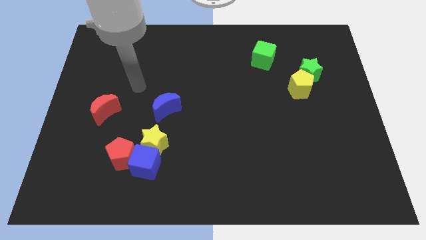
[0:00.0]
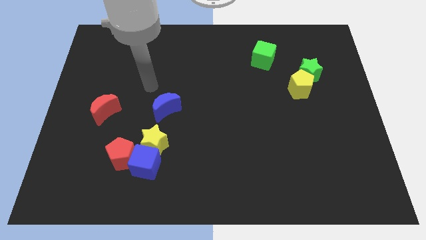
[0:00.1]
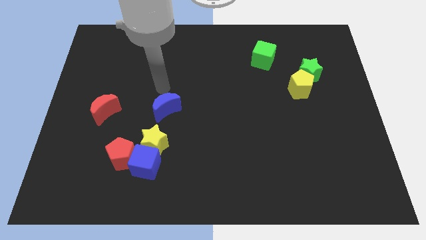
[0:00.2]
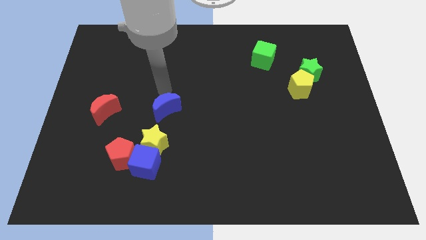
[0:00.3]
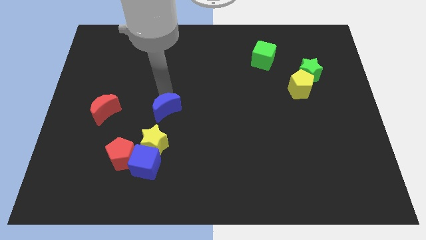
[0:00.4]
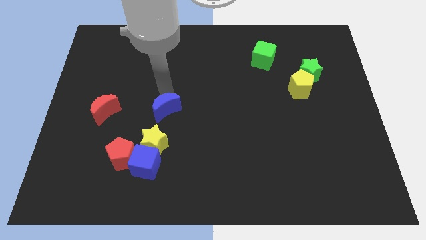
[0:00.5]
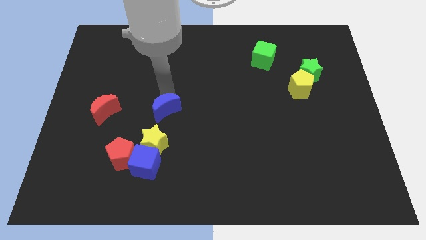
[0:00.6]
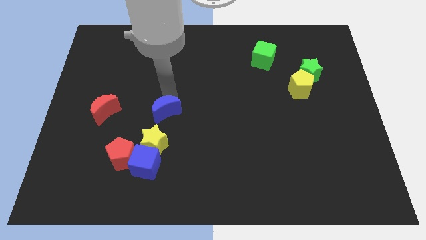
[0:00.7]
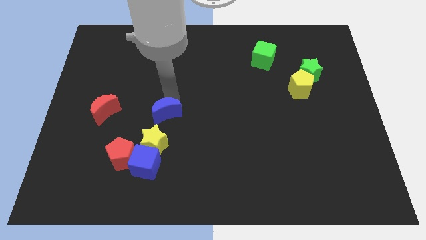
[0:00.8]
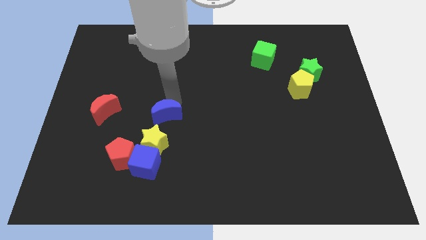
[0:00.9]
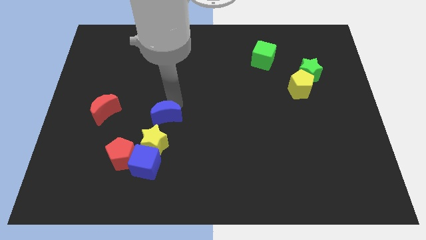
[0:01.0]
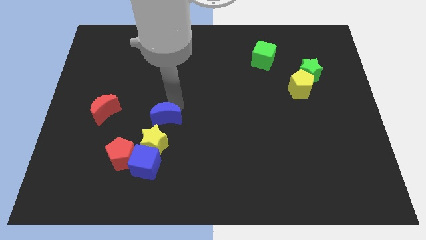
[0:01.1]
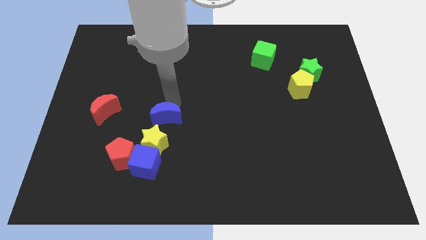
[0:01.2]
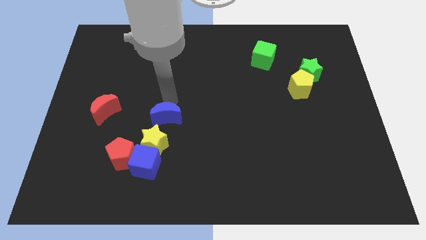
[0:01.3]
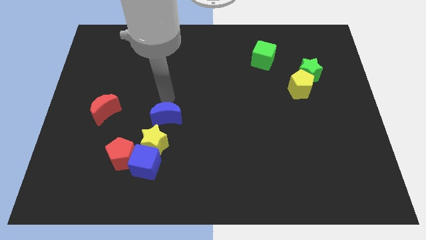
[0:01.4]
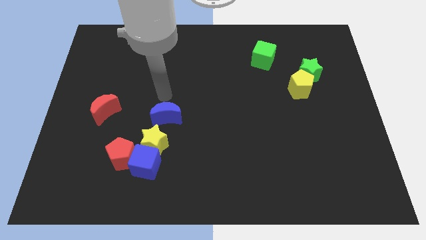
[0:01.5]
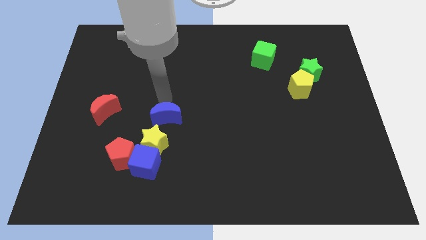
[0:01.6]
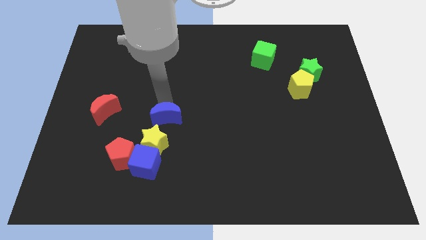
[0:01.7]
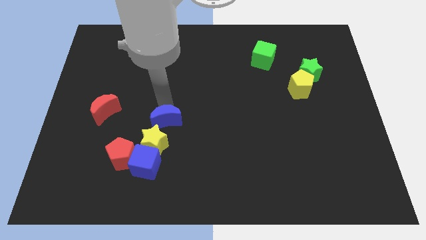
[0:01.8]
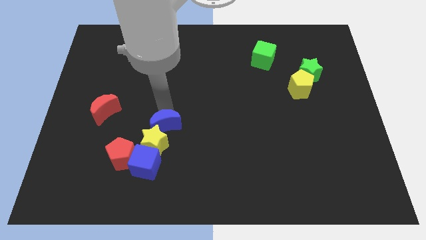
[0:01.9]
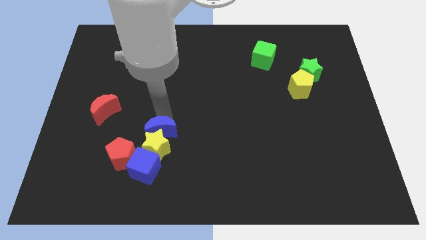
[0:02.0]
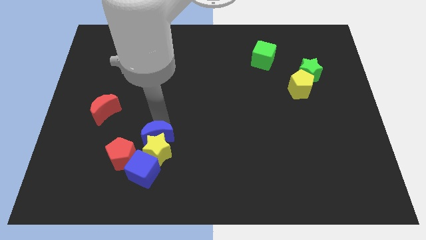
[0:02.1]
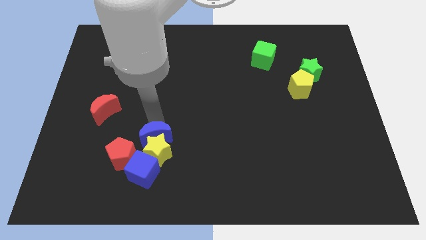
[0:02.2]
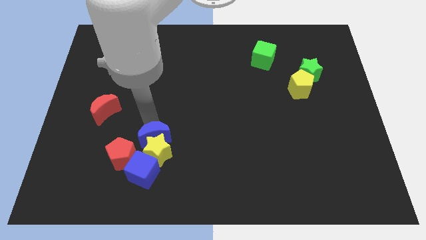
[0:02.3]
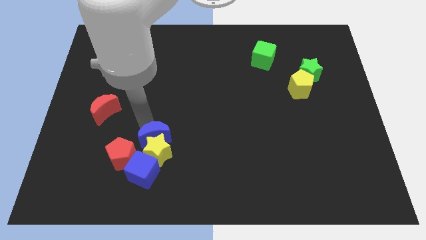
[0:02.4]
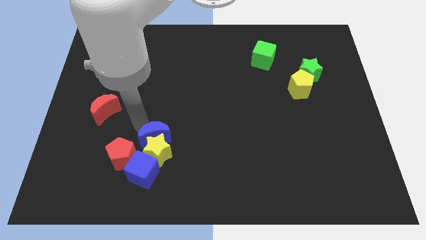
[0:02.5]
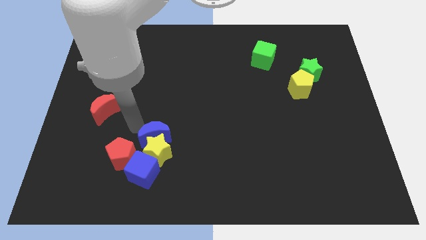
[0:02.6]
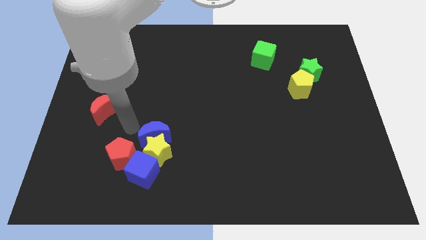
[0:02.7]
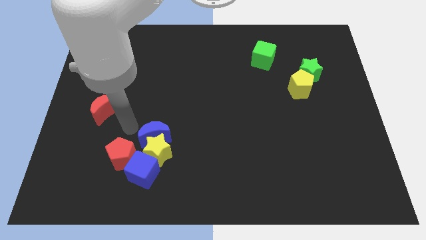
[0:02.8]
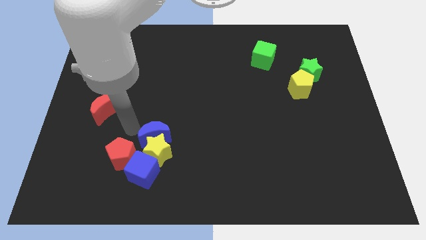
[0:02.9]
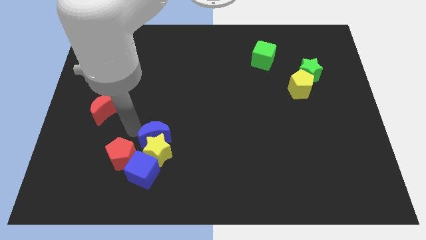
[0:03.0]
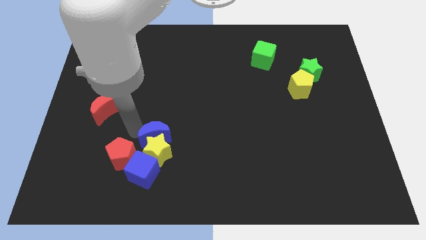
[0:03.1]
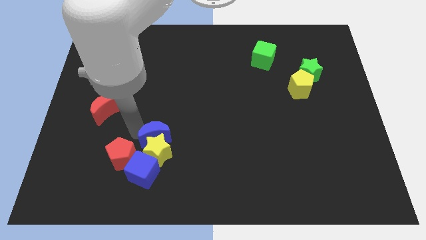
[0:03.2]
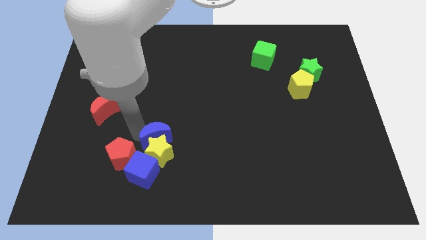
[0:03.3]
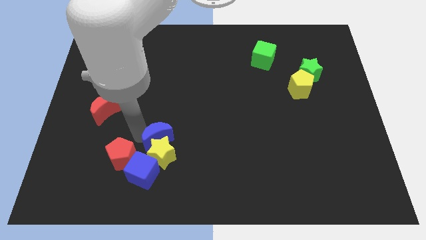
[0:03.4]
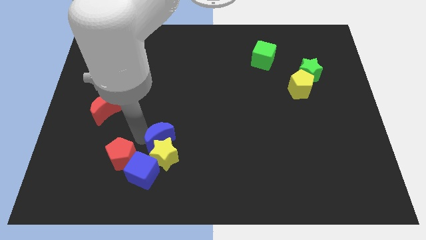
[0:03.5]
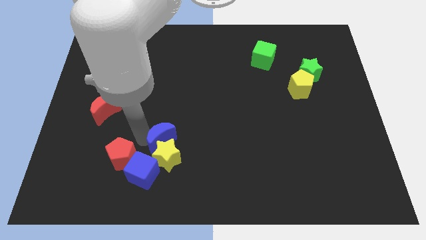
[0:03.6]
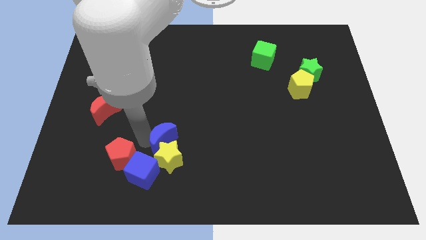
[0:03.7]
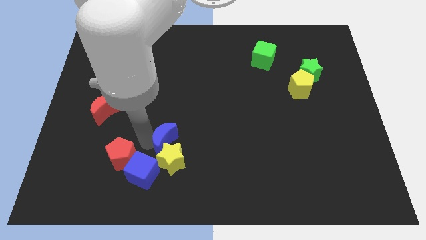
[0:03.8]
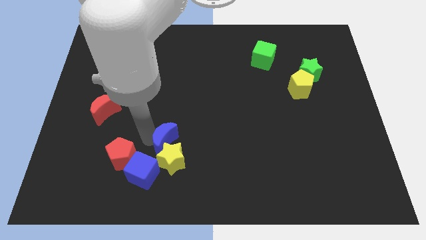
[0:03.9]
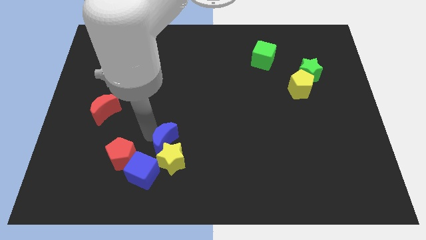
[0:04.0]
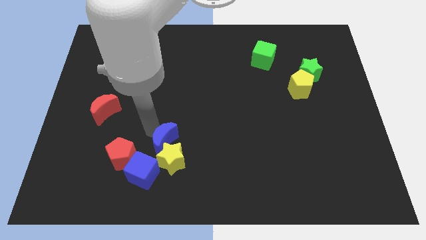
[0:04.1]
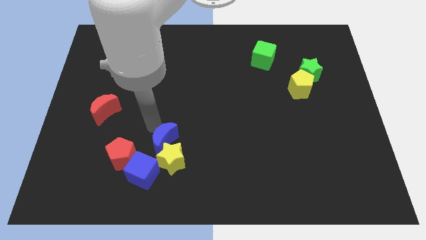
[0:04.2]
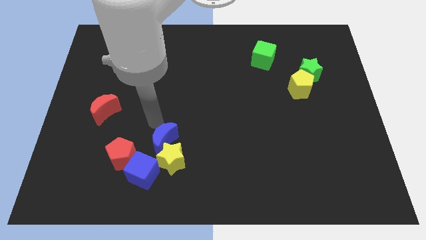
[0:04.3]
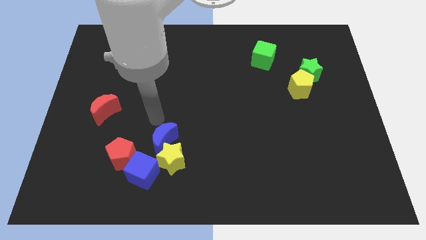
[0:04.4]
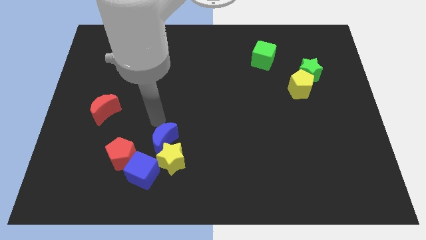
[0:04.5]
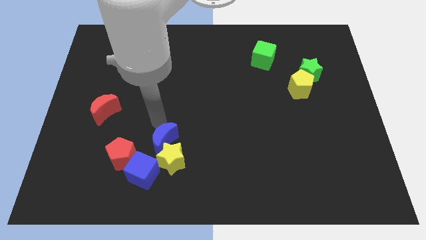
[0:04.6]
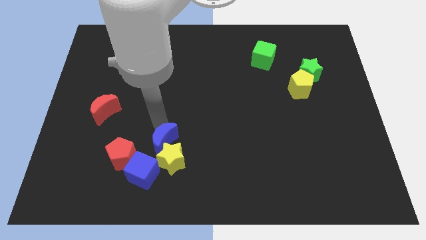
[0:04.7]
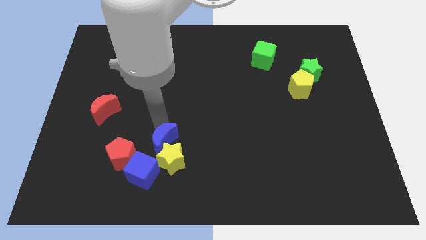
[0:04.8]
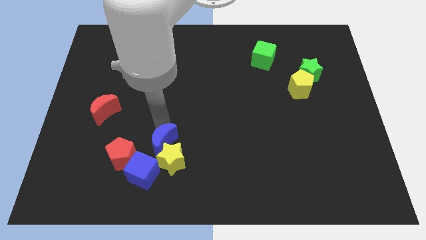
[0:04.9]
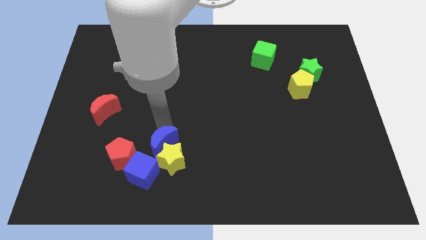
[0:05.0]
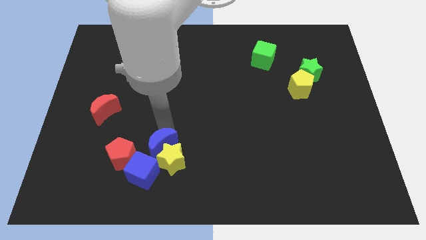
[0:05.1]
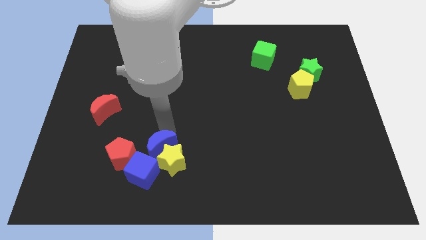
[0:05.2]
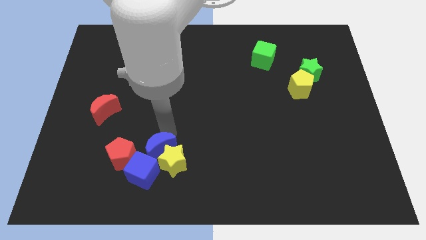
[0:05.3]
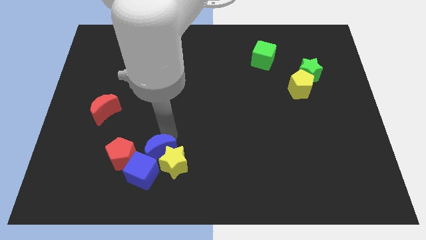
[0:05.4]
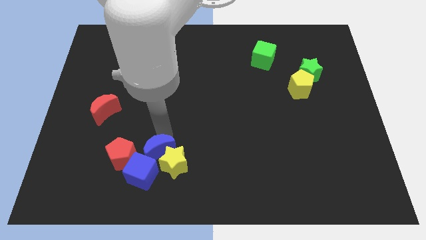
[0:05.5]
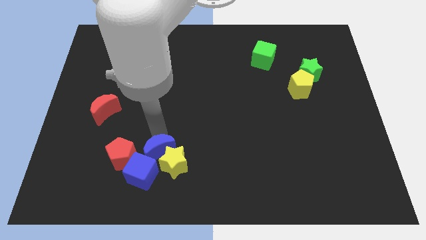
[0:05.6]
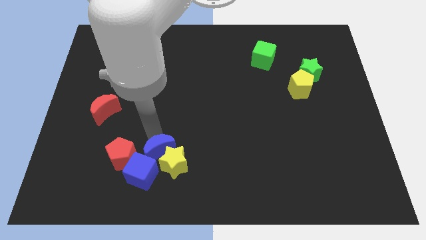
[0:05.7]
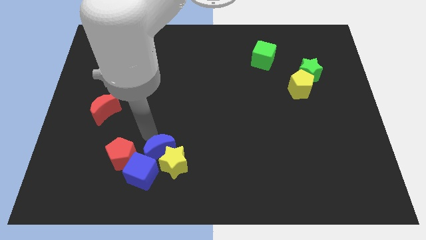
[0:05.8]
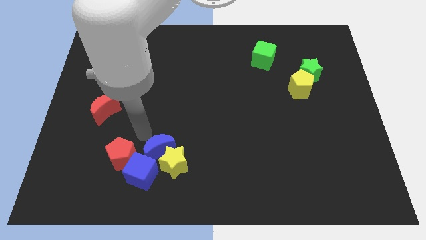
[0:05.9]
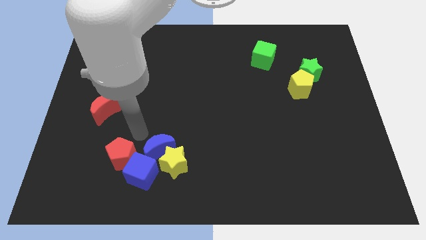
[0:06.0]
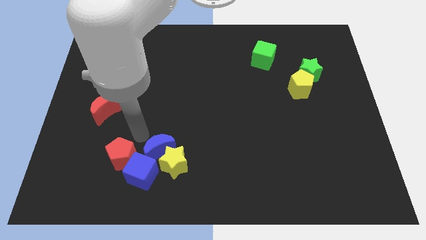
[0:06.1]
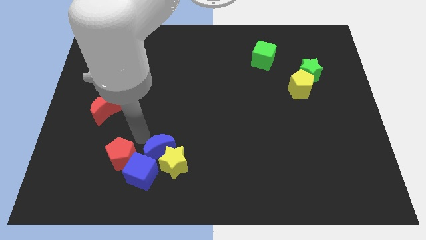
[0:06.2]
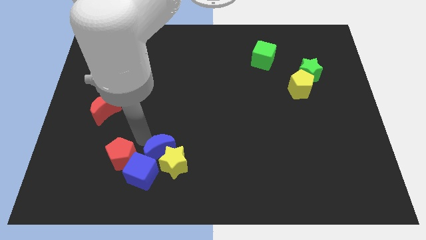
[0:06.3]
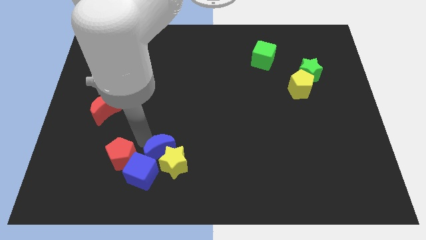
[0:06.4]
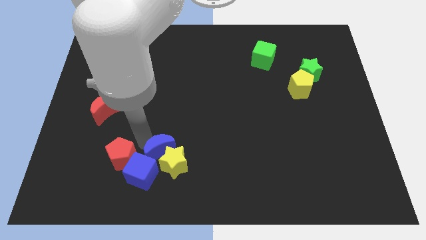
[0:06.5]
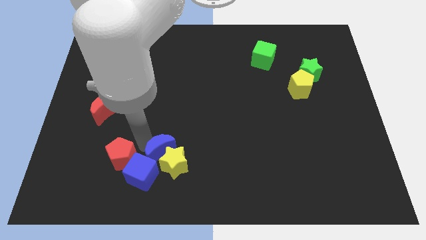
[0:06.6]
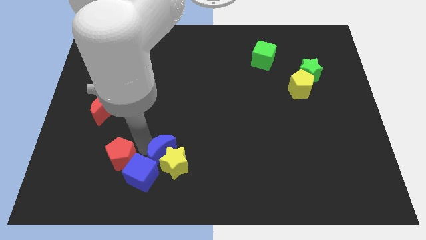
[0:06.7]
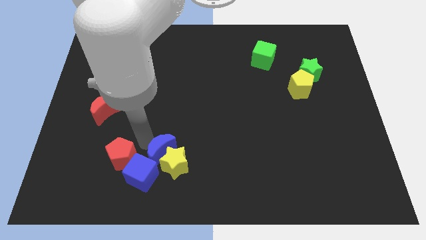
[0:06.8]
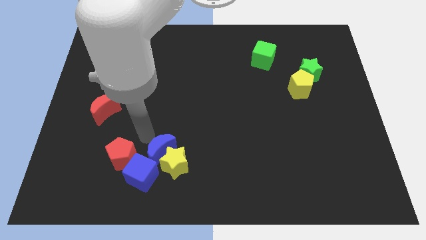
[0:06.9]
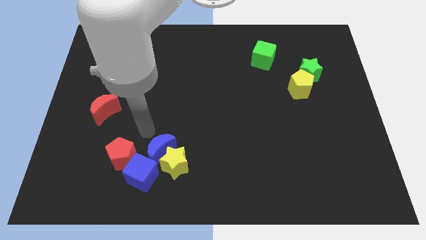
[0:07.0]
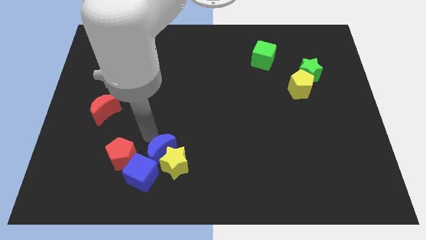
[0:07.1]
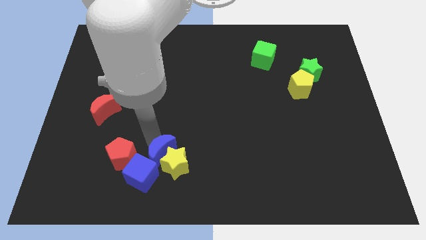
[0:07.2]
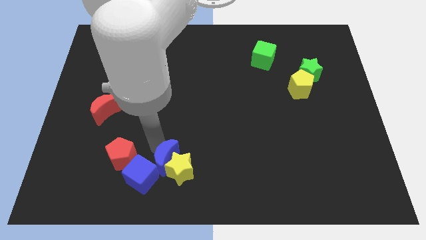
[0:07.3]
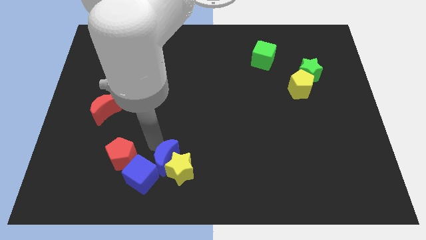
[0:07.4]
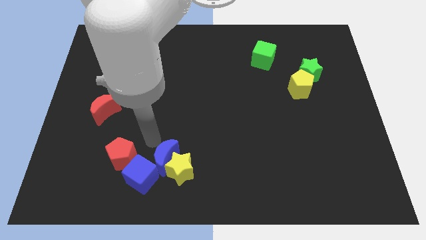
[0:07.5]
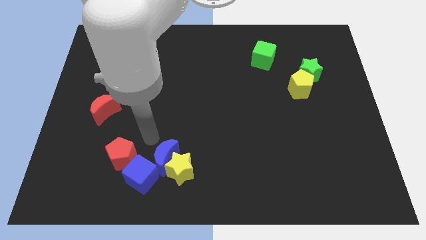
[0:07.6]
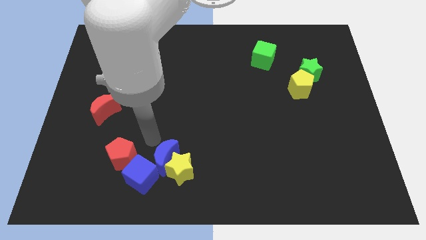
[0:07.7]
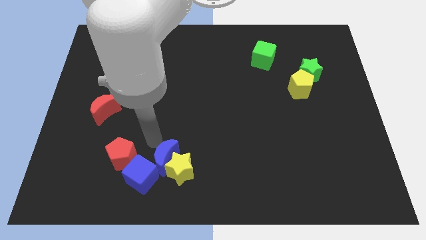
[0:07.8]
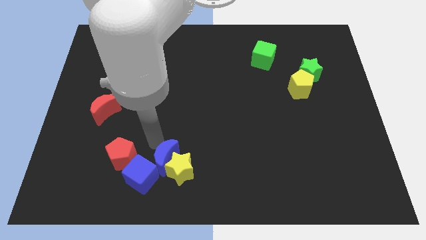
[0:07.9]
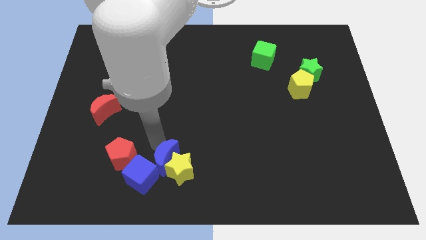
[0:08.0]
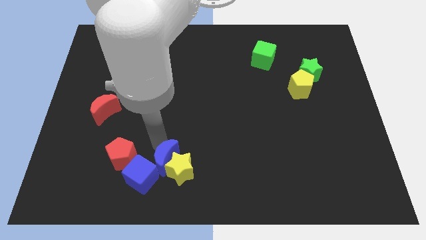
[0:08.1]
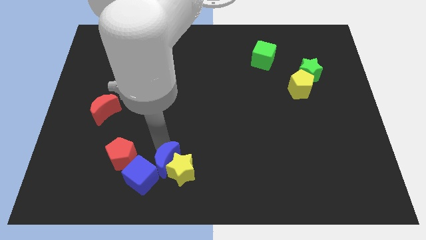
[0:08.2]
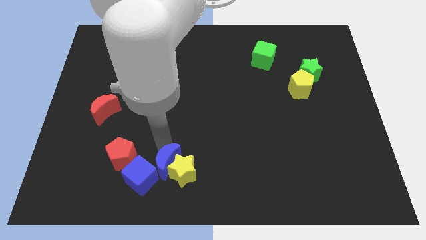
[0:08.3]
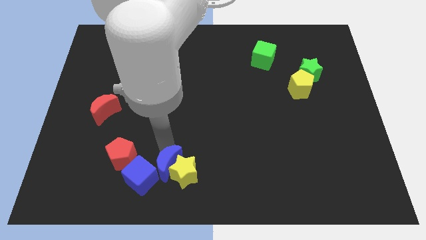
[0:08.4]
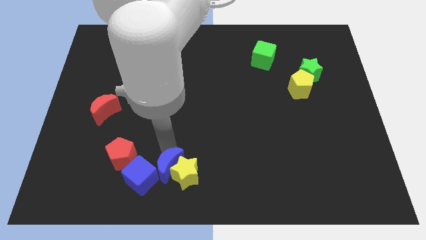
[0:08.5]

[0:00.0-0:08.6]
push the blue moon to the bottom
